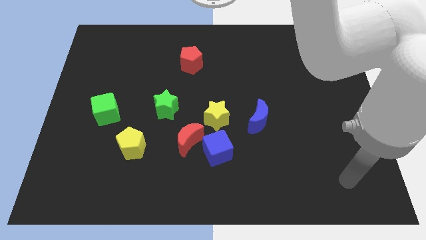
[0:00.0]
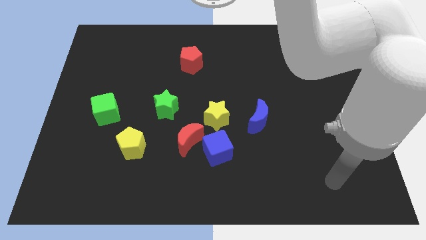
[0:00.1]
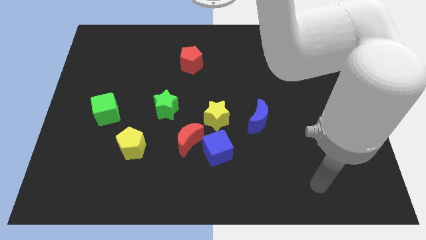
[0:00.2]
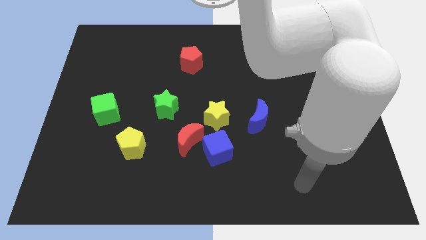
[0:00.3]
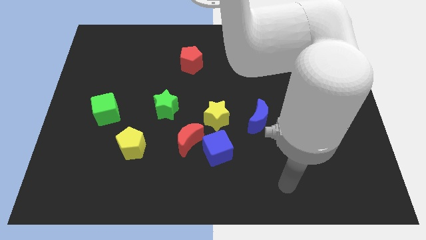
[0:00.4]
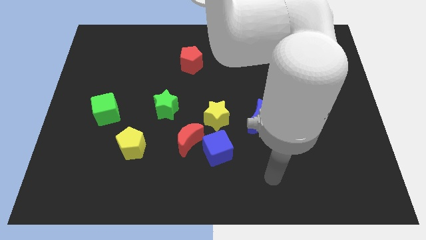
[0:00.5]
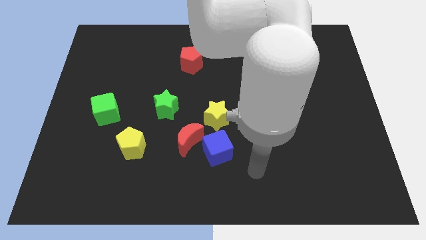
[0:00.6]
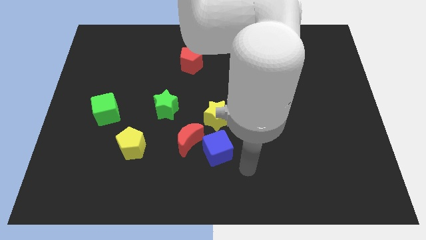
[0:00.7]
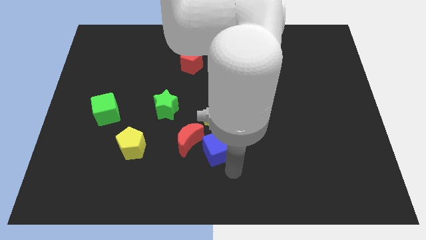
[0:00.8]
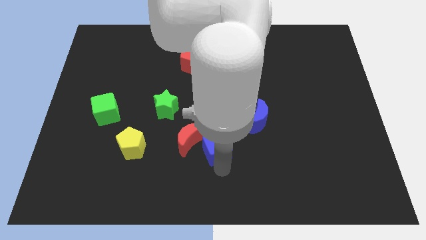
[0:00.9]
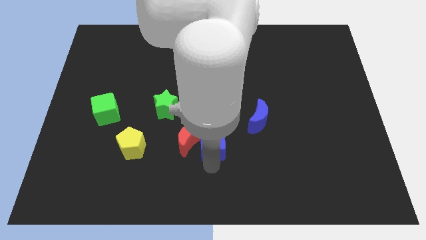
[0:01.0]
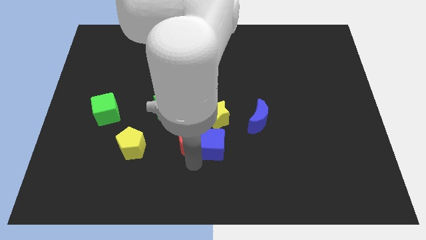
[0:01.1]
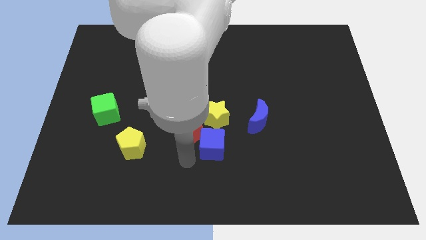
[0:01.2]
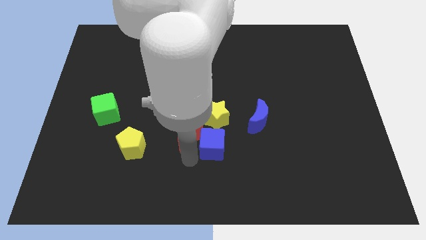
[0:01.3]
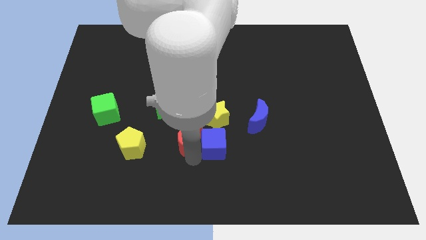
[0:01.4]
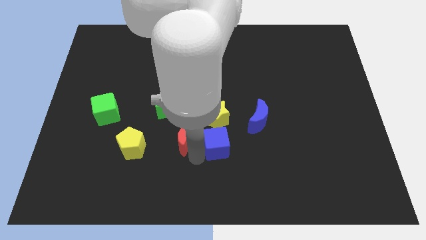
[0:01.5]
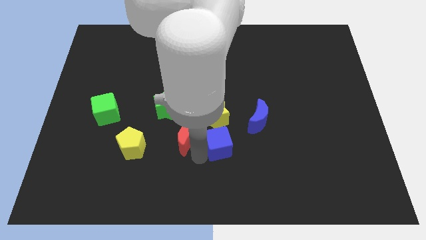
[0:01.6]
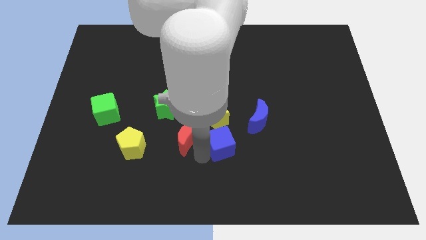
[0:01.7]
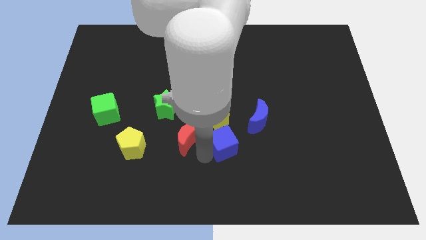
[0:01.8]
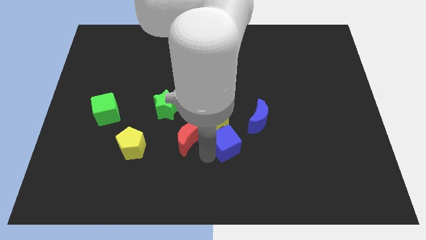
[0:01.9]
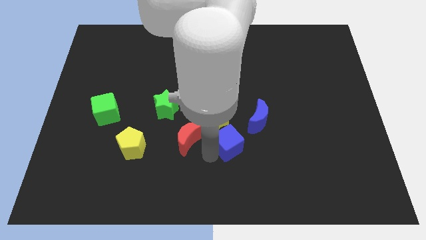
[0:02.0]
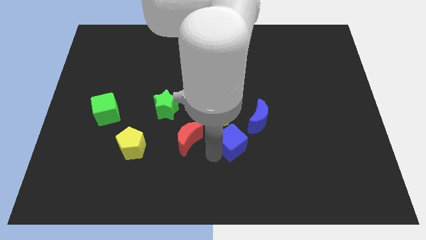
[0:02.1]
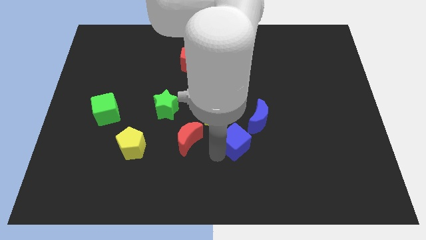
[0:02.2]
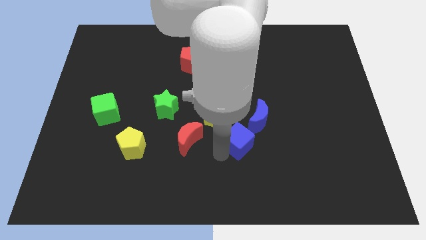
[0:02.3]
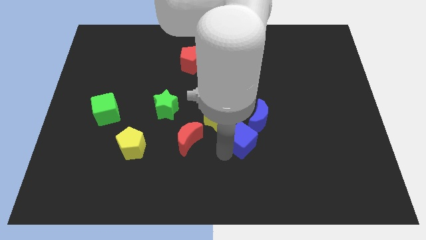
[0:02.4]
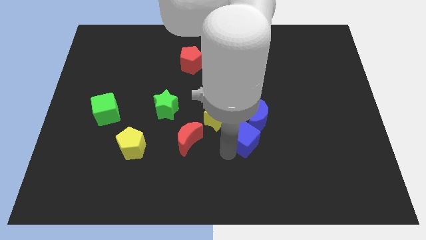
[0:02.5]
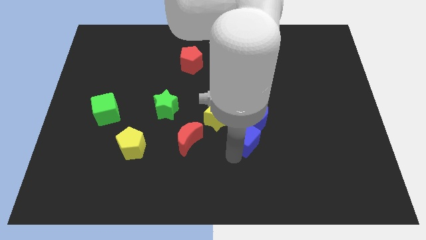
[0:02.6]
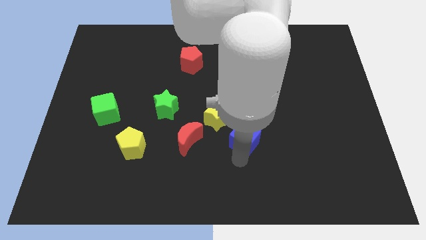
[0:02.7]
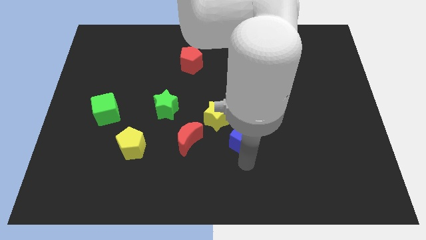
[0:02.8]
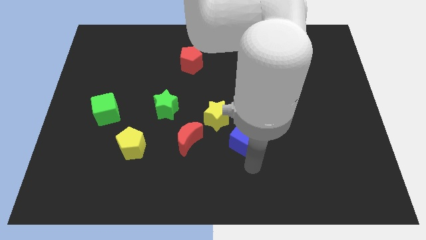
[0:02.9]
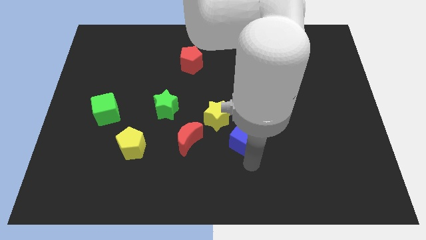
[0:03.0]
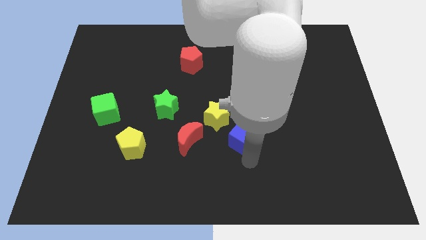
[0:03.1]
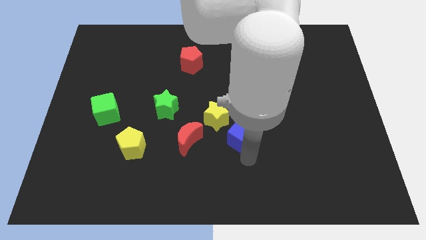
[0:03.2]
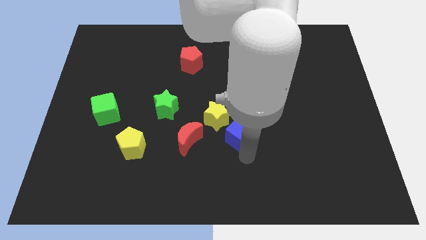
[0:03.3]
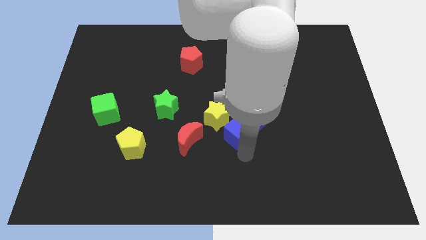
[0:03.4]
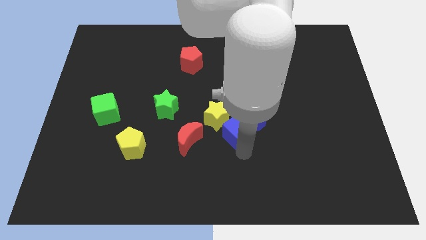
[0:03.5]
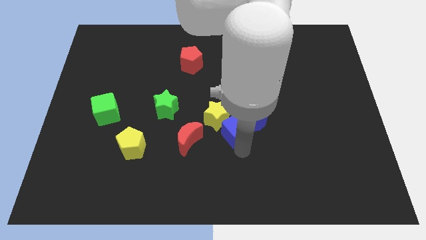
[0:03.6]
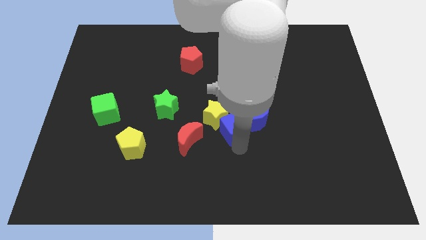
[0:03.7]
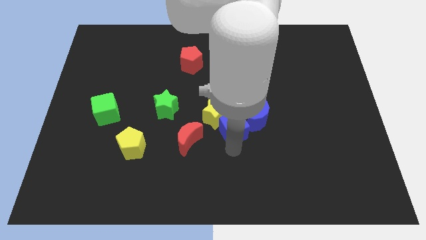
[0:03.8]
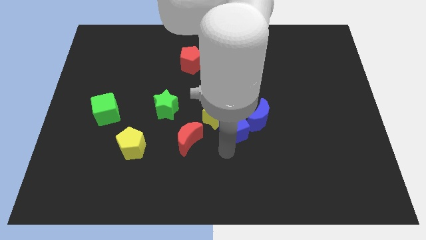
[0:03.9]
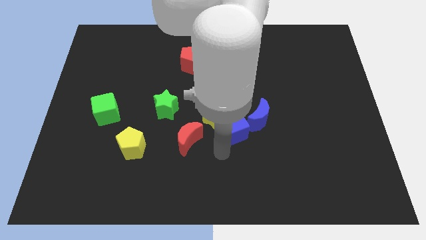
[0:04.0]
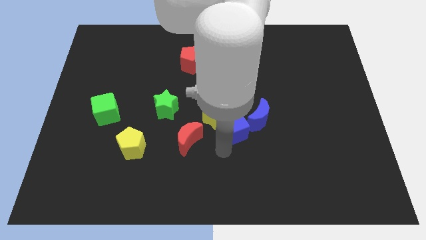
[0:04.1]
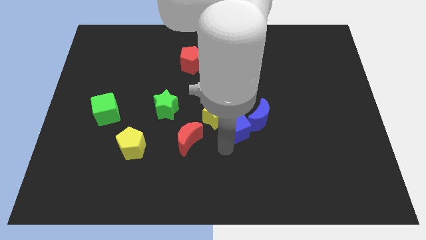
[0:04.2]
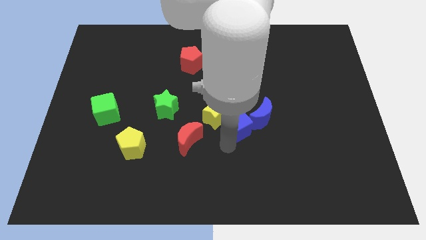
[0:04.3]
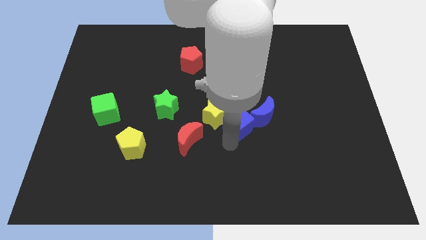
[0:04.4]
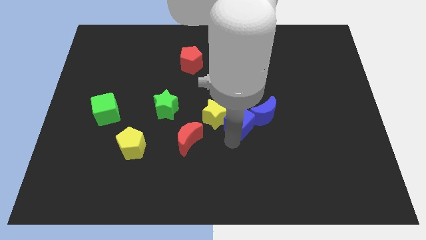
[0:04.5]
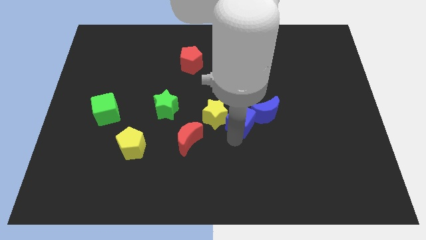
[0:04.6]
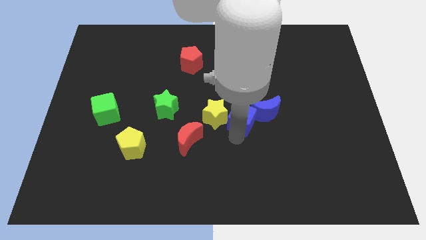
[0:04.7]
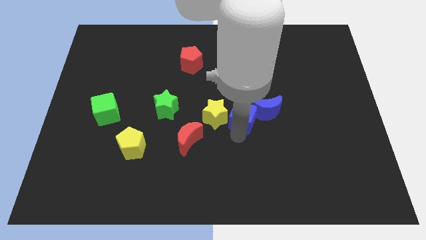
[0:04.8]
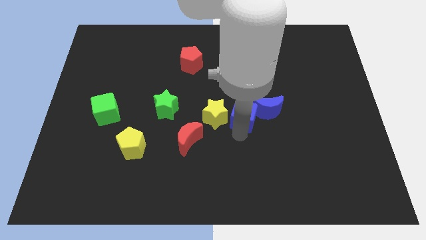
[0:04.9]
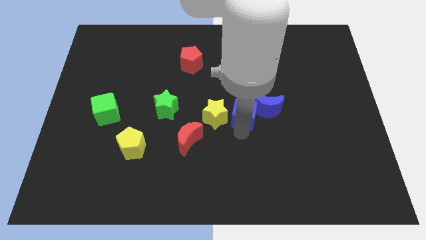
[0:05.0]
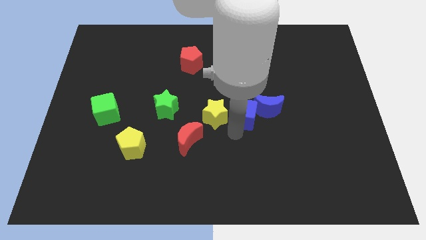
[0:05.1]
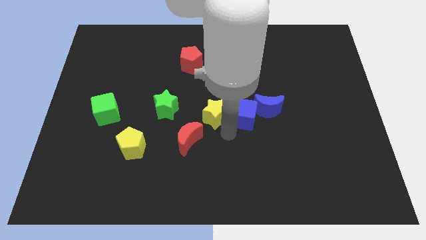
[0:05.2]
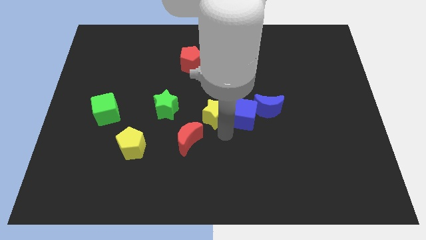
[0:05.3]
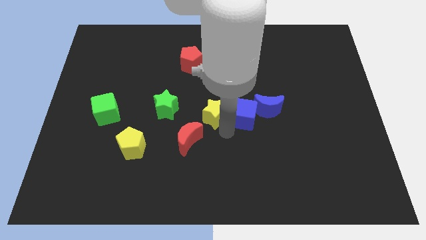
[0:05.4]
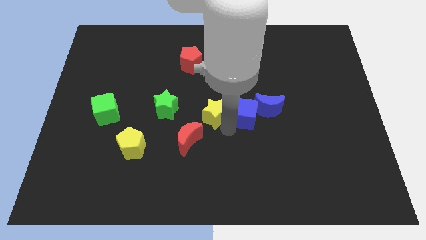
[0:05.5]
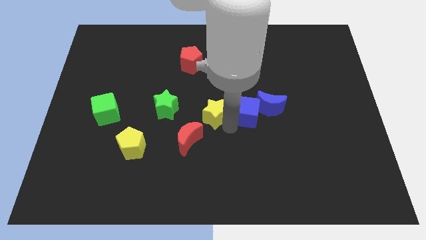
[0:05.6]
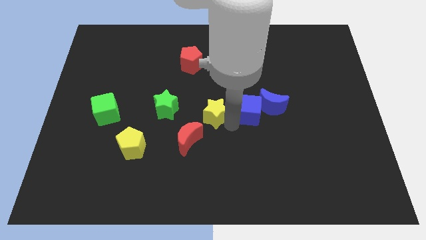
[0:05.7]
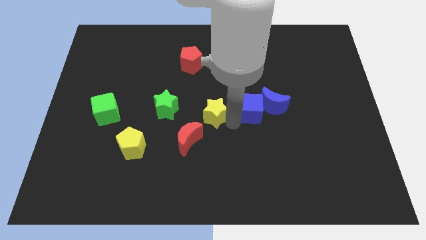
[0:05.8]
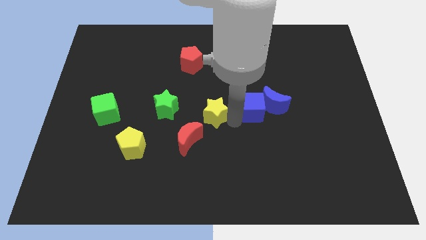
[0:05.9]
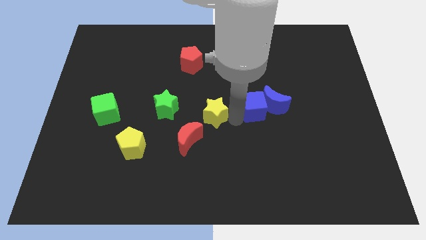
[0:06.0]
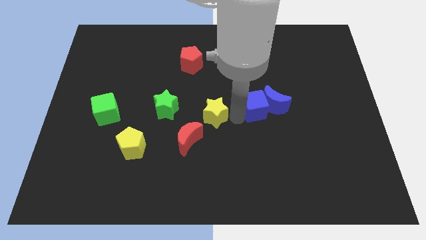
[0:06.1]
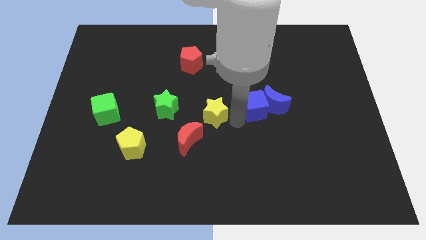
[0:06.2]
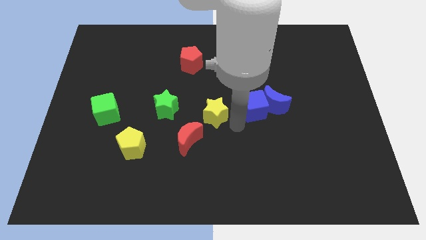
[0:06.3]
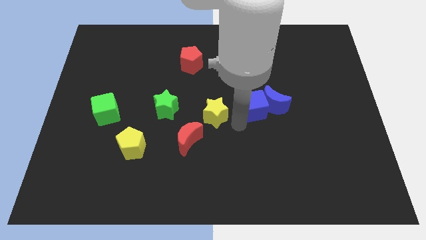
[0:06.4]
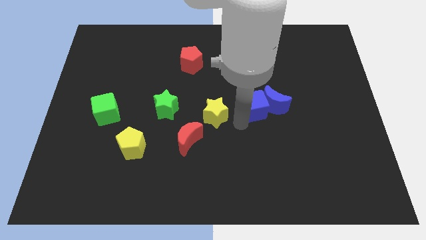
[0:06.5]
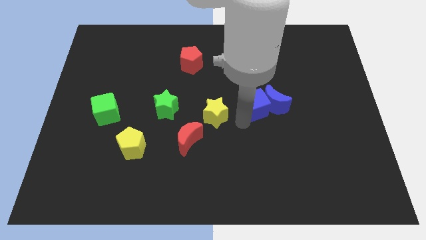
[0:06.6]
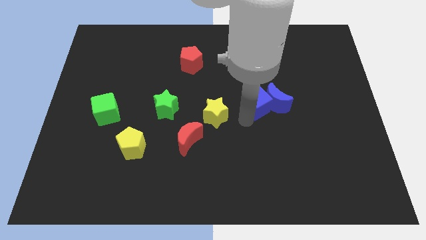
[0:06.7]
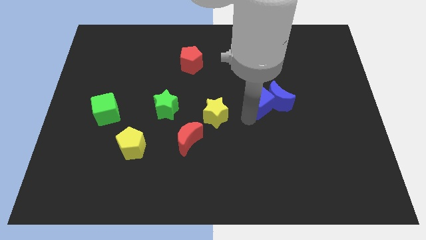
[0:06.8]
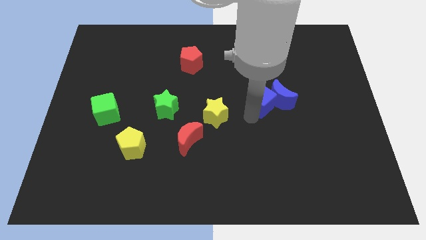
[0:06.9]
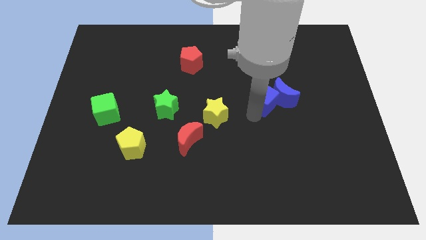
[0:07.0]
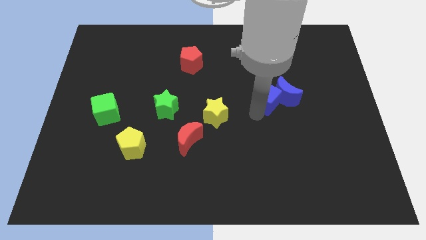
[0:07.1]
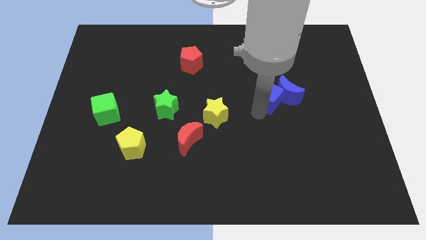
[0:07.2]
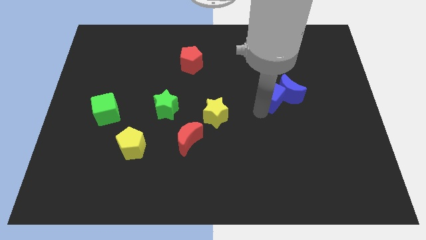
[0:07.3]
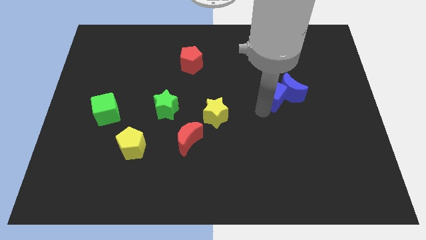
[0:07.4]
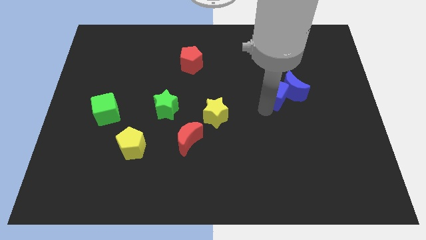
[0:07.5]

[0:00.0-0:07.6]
slide the blue cube up and right

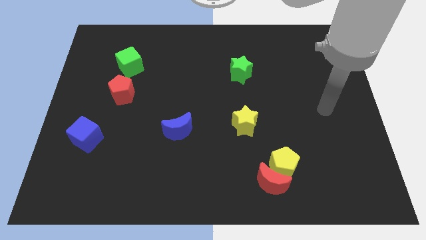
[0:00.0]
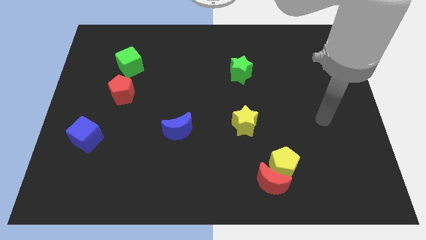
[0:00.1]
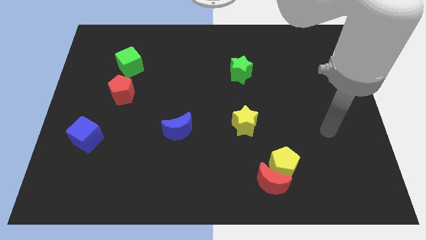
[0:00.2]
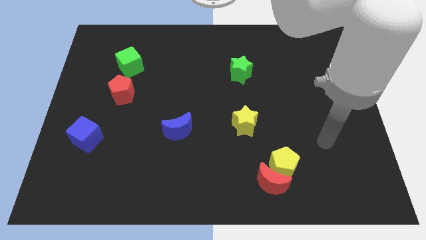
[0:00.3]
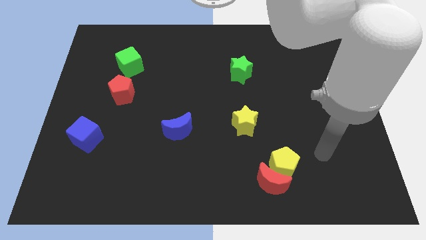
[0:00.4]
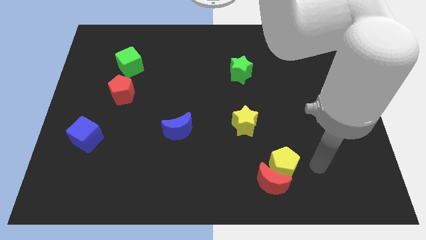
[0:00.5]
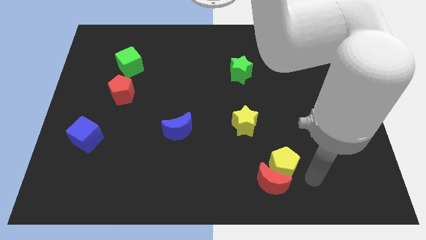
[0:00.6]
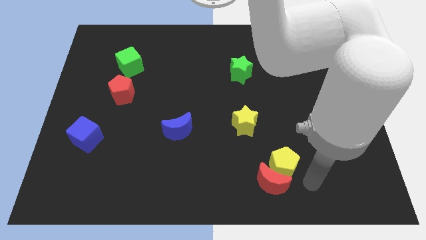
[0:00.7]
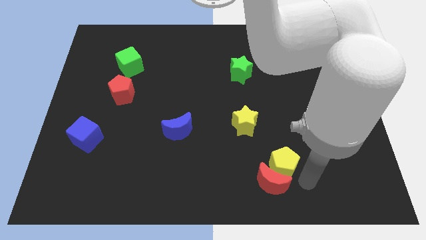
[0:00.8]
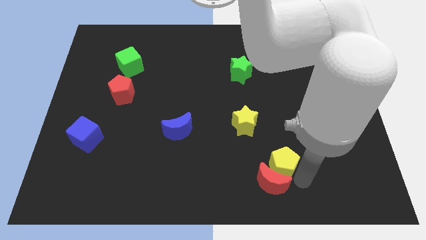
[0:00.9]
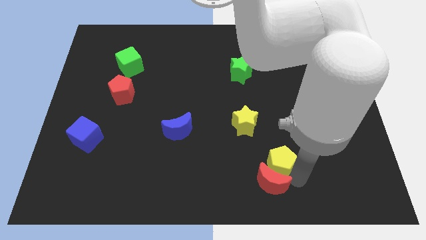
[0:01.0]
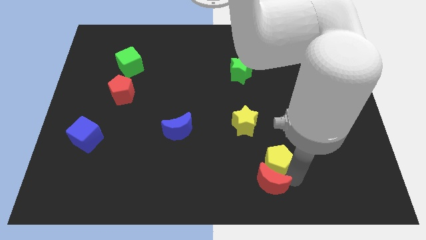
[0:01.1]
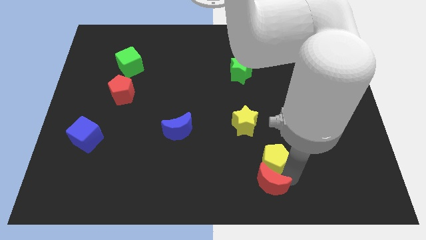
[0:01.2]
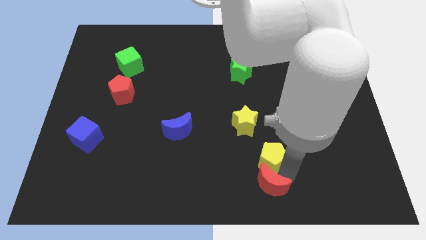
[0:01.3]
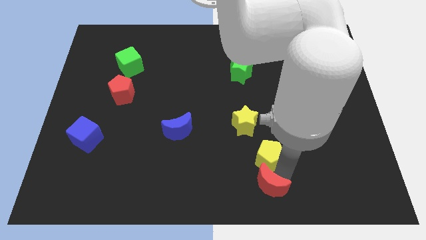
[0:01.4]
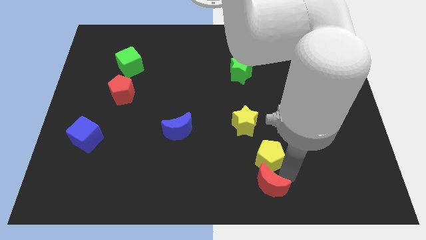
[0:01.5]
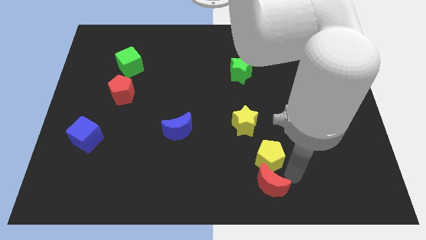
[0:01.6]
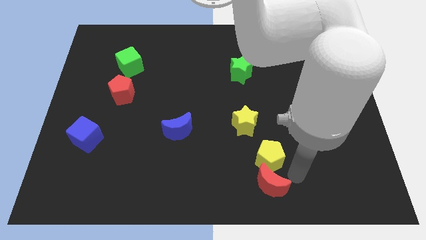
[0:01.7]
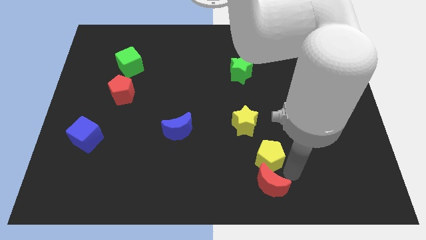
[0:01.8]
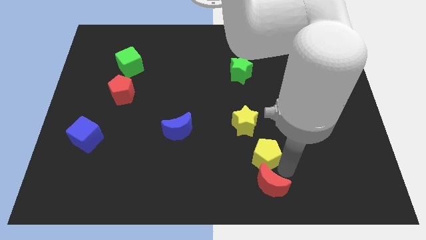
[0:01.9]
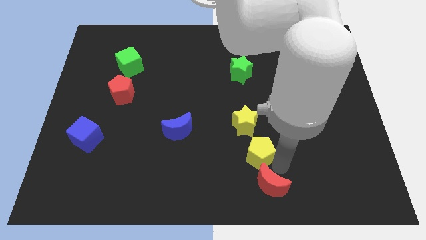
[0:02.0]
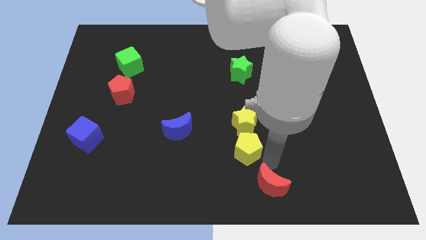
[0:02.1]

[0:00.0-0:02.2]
push the yellow pentagon up and left diagonally a little bit
